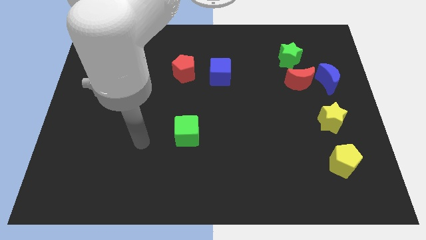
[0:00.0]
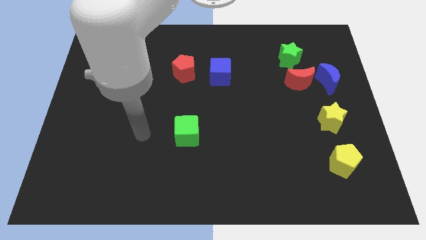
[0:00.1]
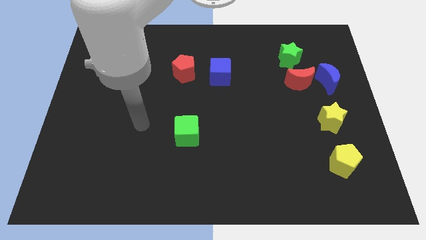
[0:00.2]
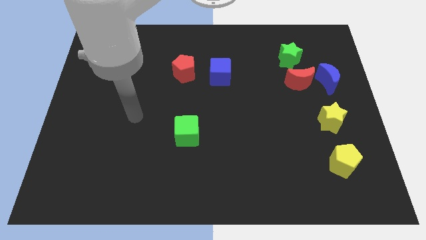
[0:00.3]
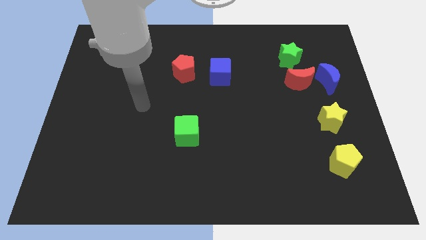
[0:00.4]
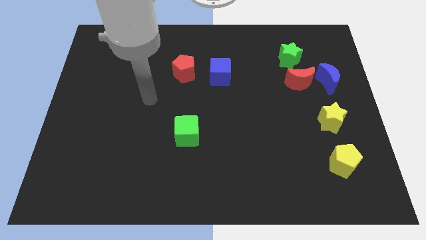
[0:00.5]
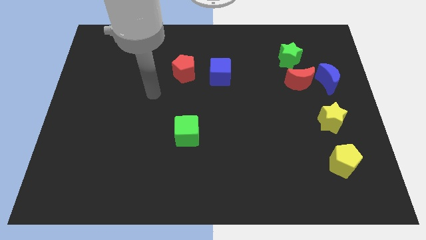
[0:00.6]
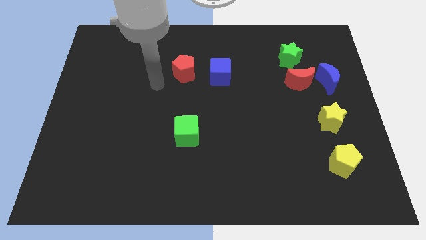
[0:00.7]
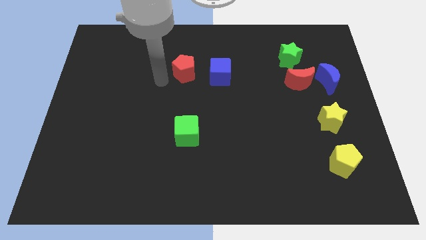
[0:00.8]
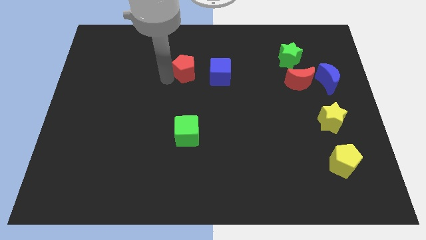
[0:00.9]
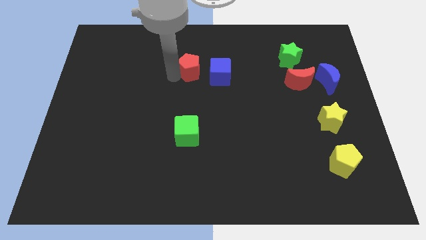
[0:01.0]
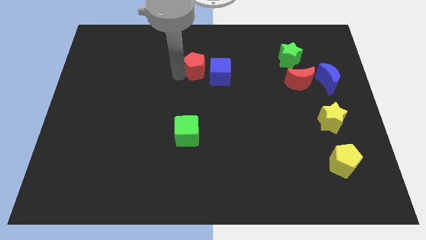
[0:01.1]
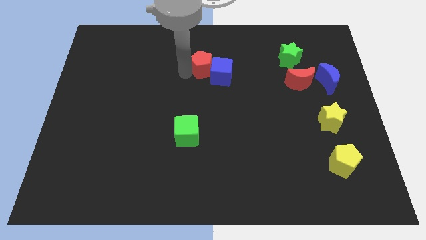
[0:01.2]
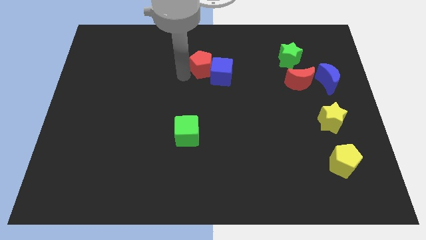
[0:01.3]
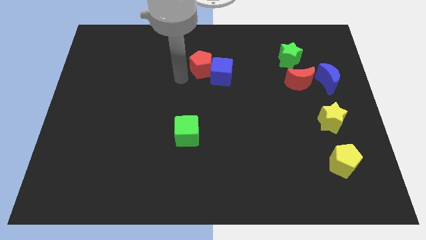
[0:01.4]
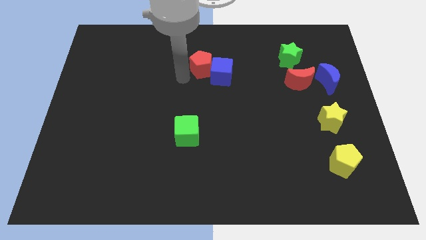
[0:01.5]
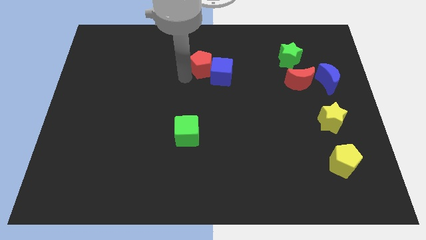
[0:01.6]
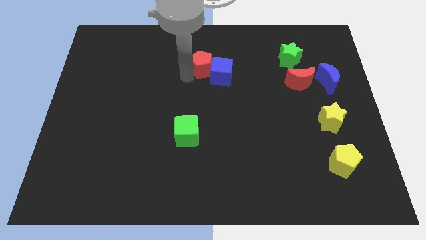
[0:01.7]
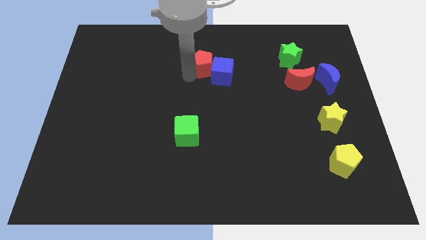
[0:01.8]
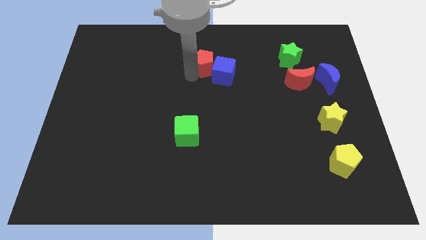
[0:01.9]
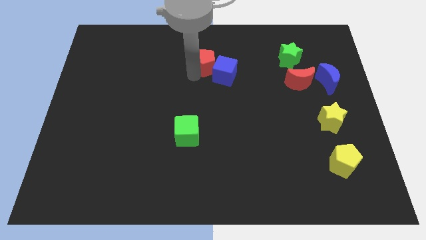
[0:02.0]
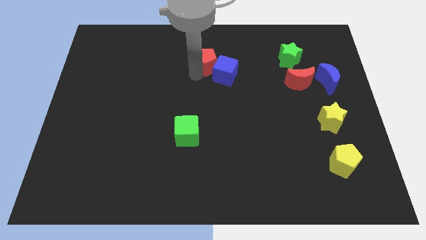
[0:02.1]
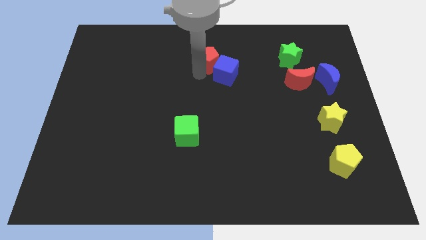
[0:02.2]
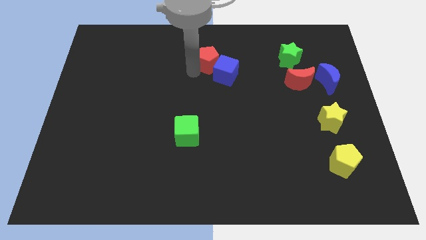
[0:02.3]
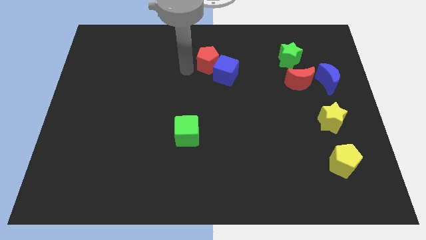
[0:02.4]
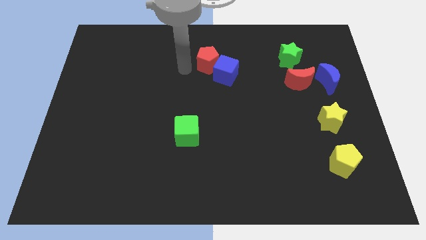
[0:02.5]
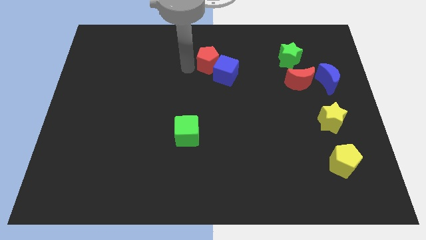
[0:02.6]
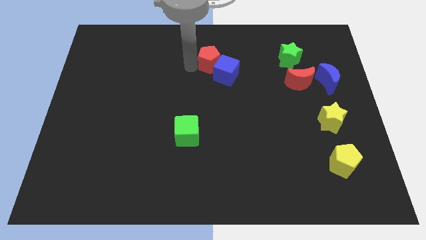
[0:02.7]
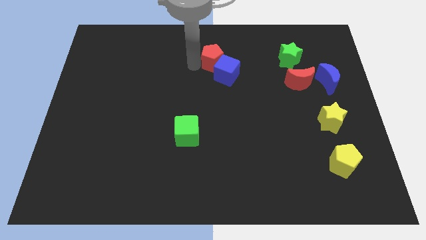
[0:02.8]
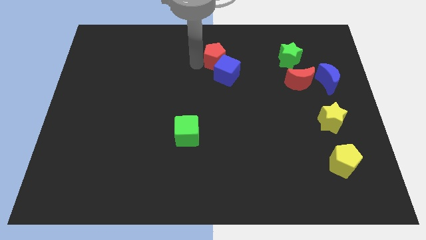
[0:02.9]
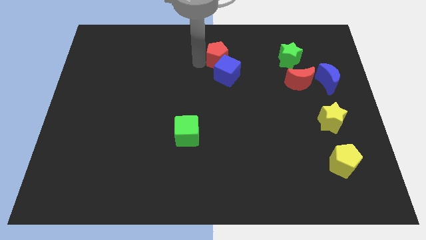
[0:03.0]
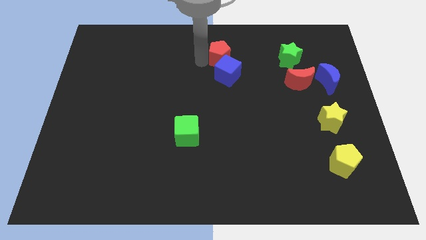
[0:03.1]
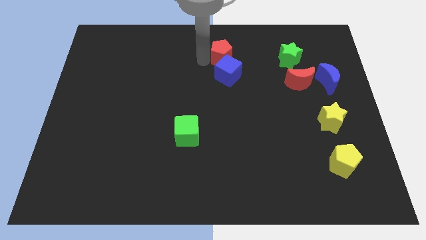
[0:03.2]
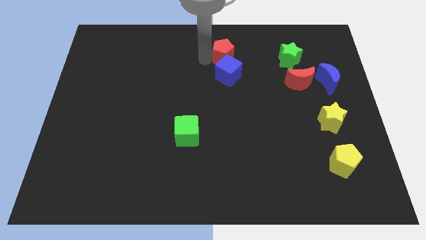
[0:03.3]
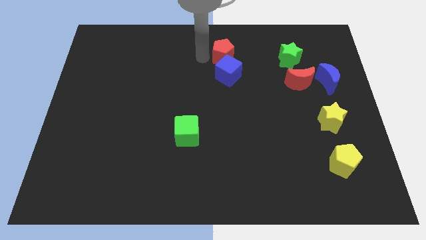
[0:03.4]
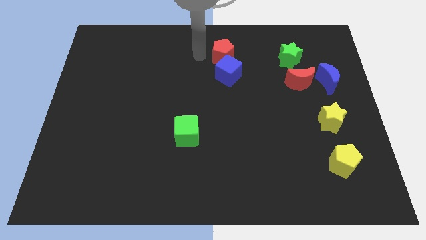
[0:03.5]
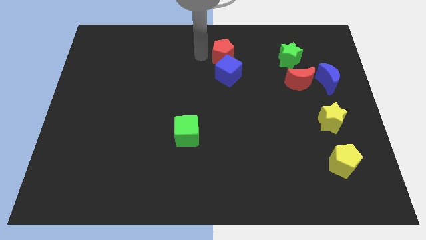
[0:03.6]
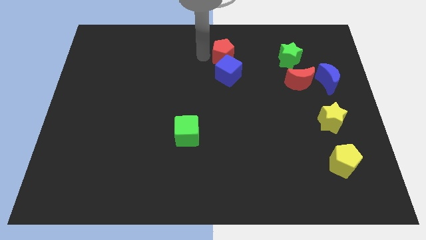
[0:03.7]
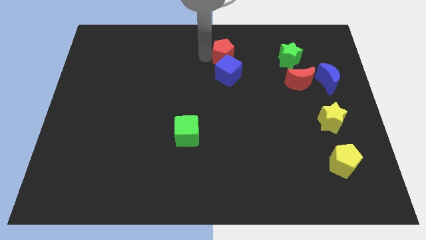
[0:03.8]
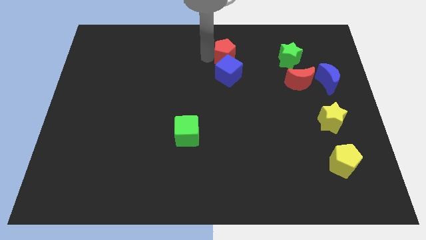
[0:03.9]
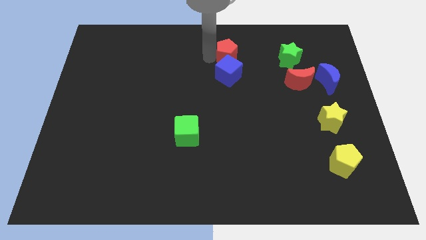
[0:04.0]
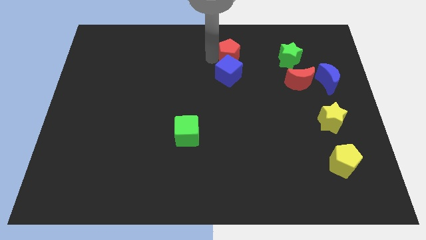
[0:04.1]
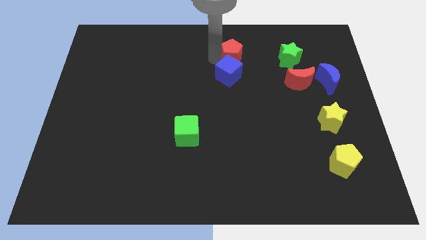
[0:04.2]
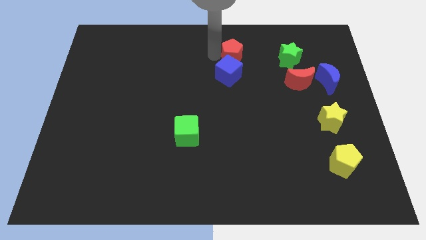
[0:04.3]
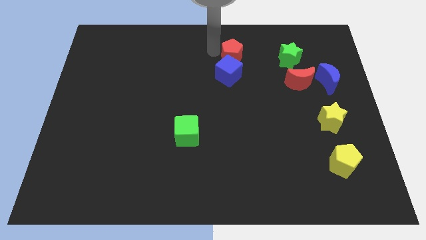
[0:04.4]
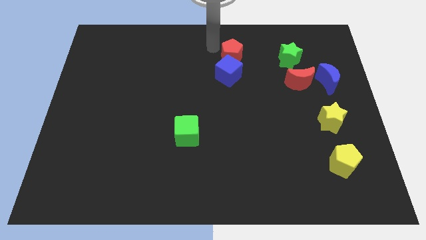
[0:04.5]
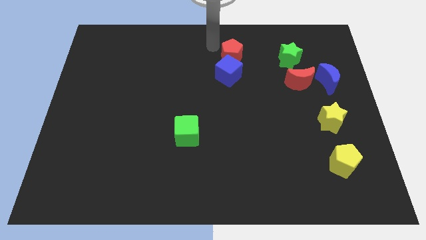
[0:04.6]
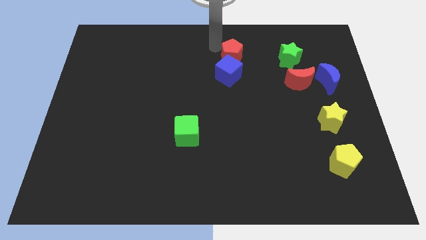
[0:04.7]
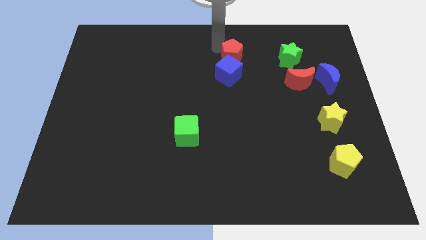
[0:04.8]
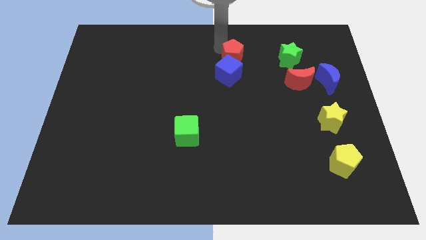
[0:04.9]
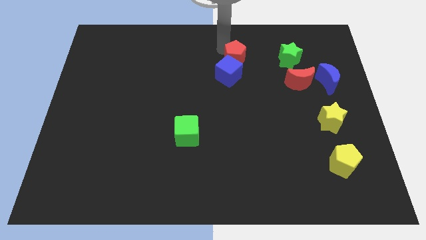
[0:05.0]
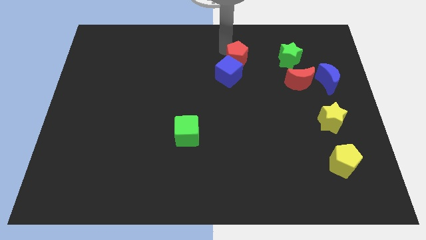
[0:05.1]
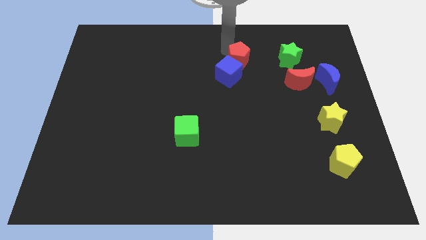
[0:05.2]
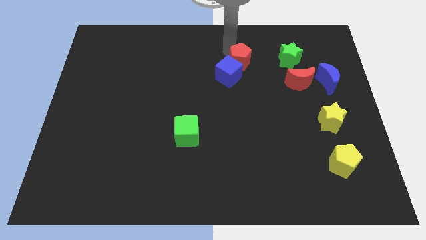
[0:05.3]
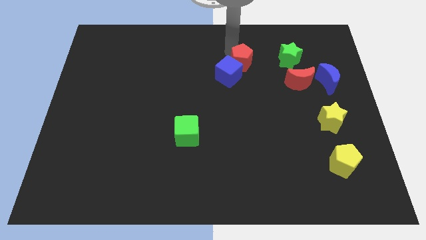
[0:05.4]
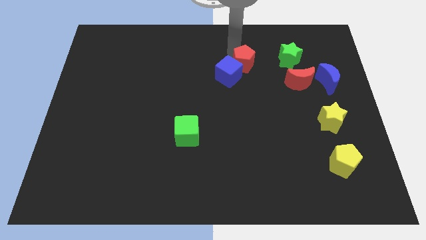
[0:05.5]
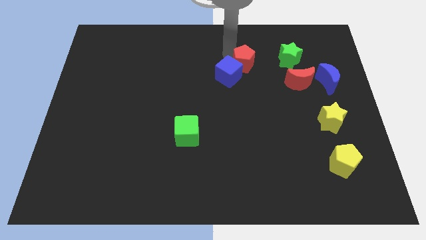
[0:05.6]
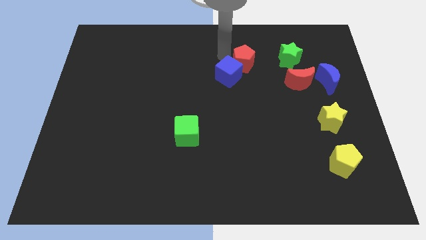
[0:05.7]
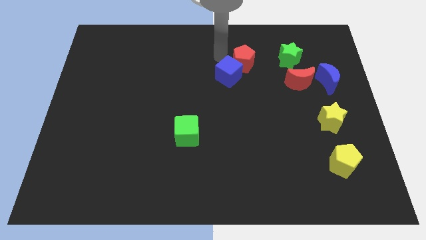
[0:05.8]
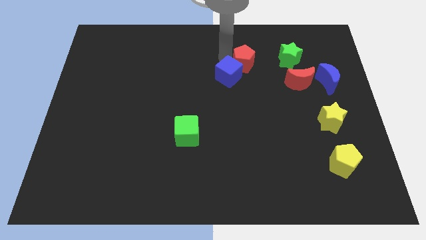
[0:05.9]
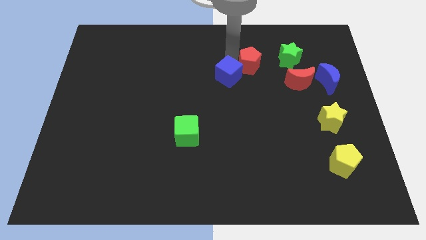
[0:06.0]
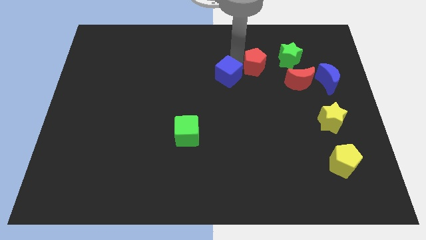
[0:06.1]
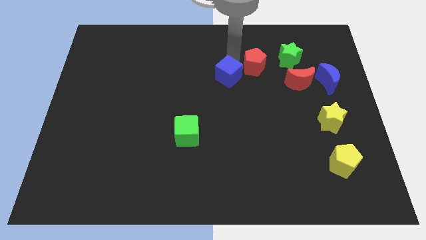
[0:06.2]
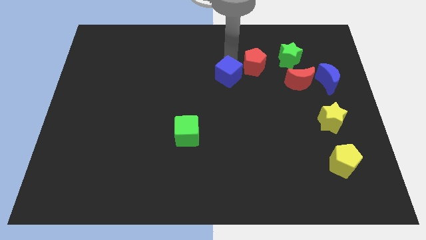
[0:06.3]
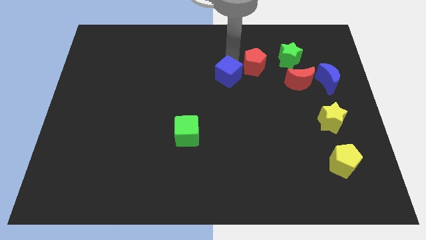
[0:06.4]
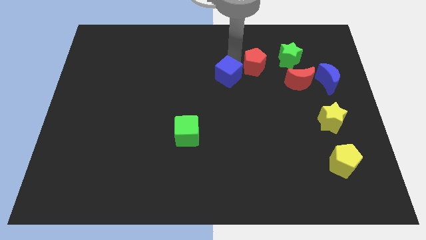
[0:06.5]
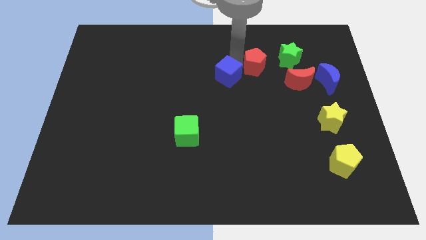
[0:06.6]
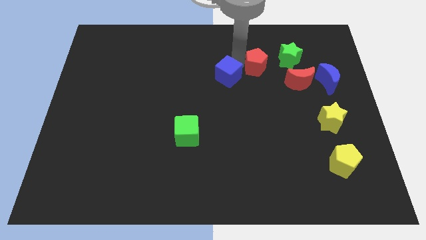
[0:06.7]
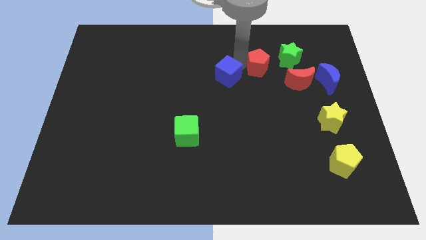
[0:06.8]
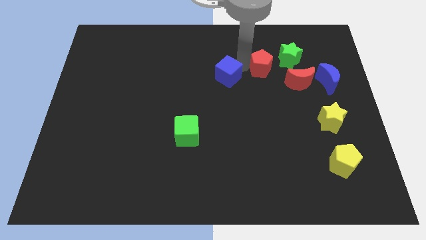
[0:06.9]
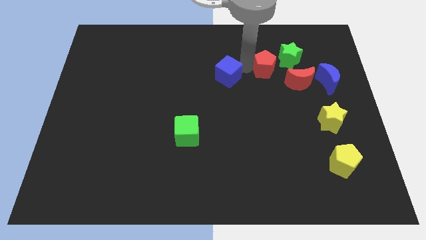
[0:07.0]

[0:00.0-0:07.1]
push the red pentagon to the right

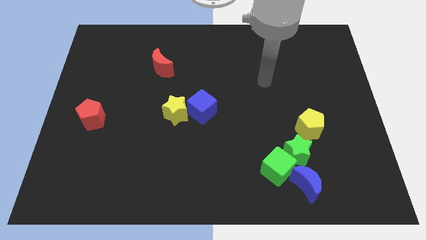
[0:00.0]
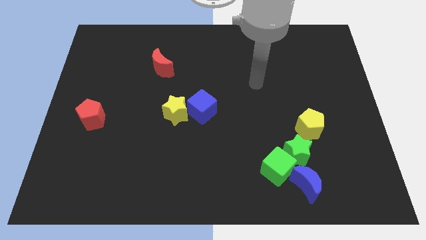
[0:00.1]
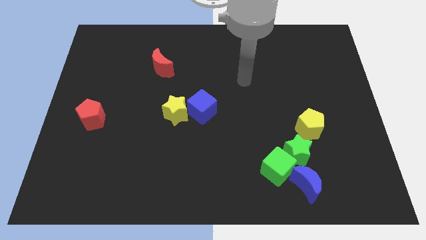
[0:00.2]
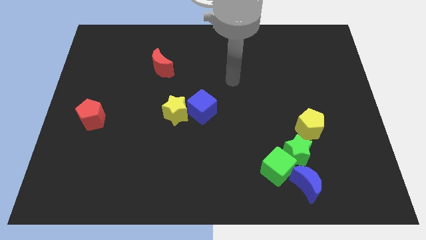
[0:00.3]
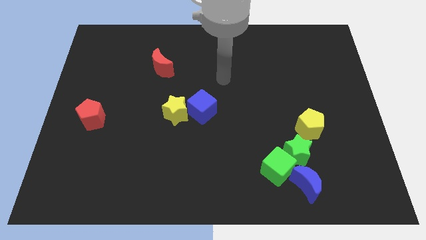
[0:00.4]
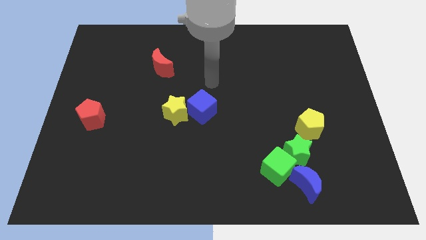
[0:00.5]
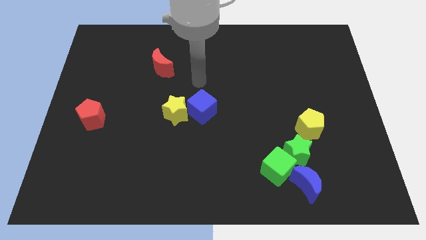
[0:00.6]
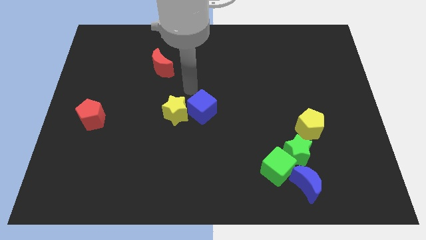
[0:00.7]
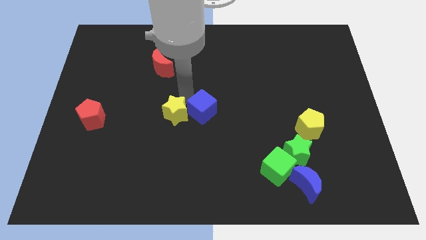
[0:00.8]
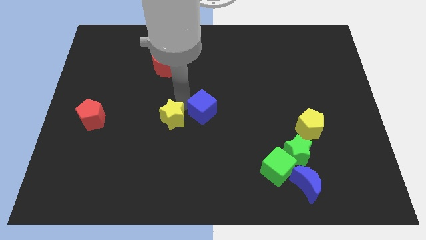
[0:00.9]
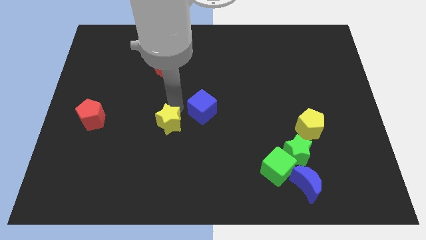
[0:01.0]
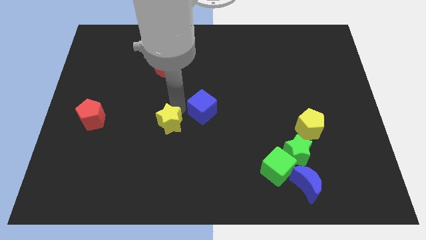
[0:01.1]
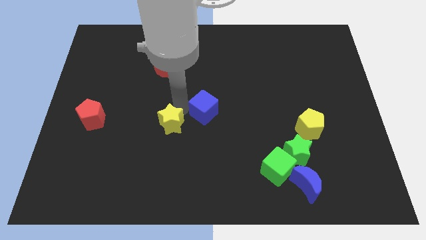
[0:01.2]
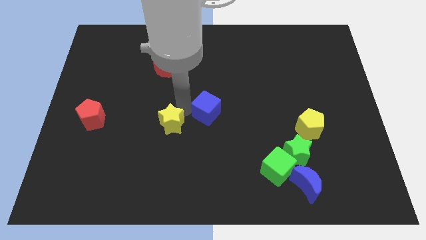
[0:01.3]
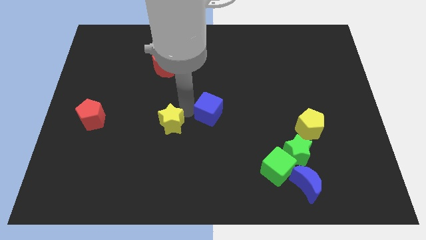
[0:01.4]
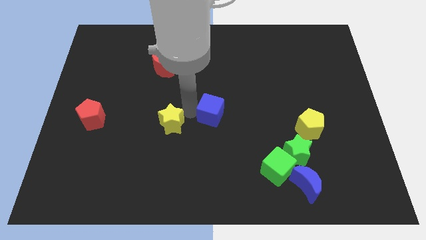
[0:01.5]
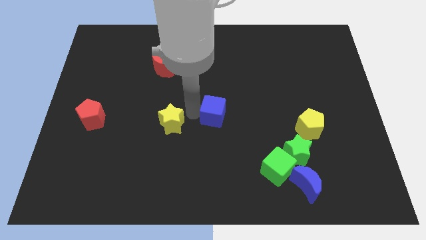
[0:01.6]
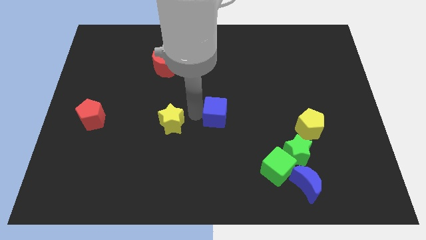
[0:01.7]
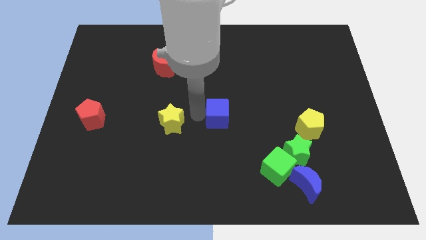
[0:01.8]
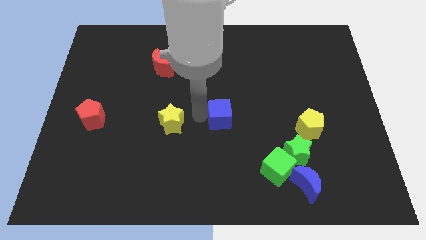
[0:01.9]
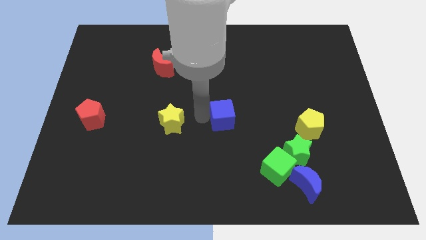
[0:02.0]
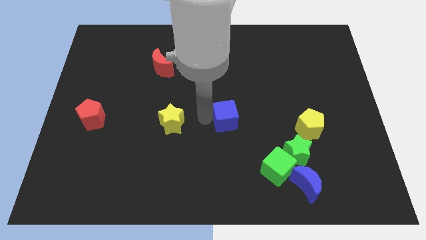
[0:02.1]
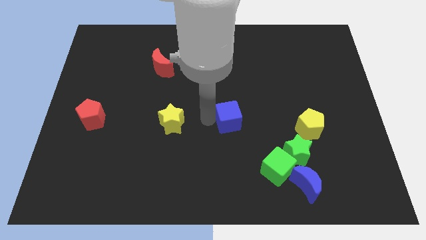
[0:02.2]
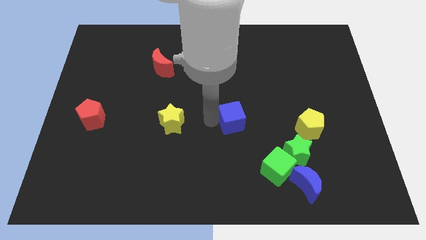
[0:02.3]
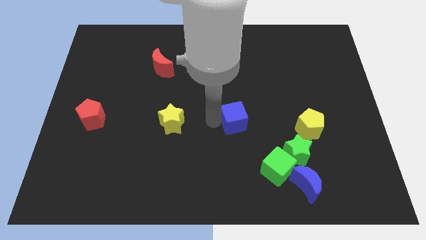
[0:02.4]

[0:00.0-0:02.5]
move the blue cube to the right a bit
